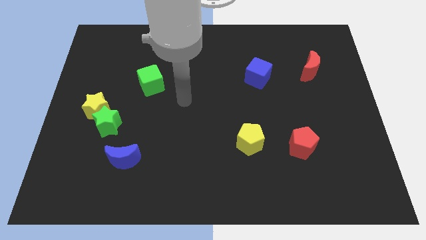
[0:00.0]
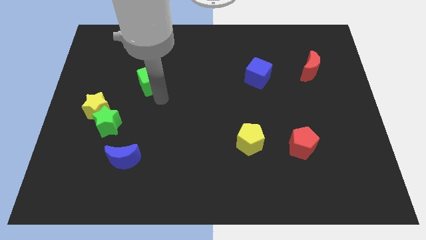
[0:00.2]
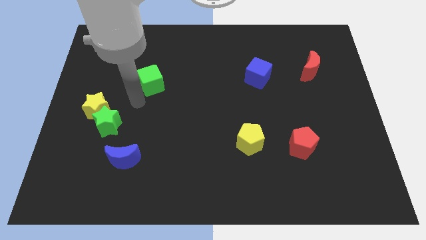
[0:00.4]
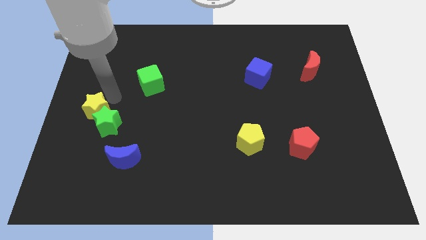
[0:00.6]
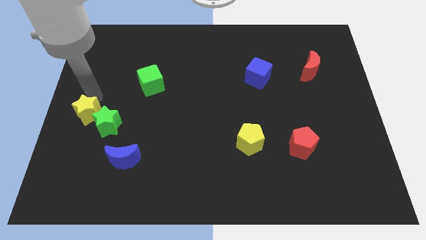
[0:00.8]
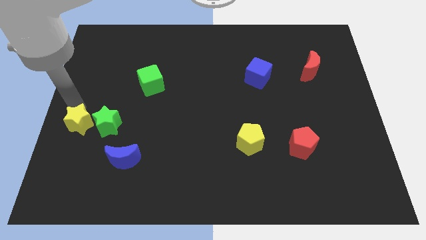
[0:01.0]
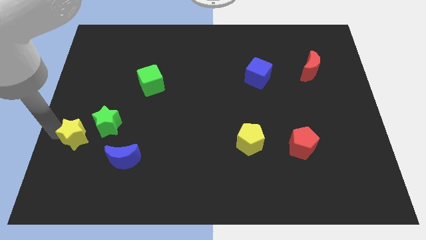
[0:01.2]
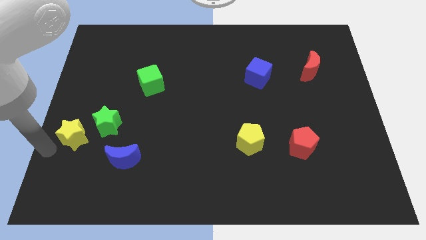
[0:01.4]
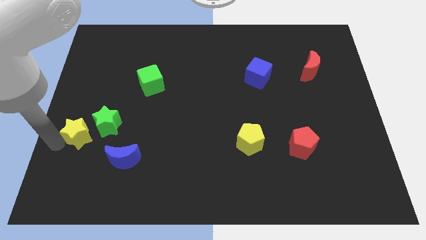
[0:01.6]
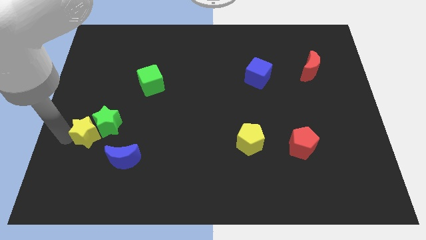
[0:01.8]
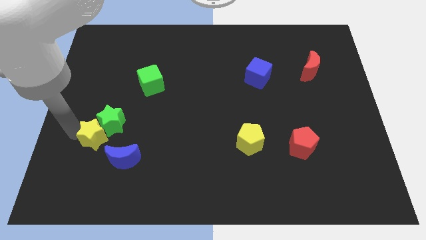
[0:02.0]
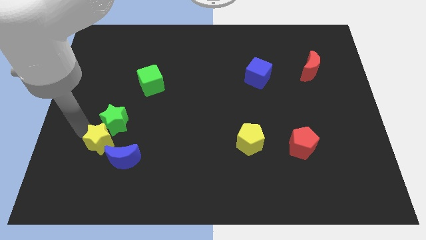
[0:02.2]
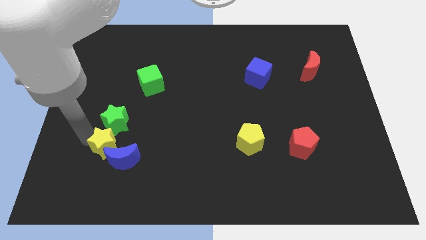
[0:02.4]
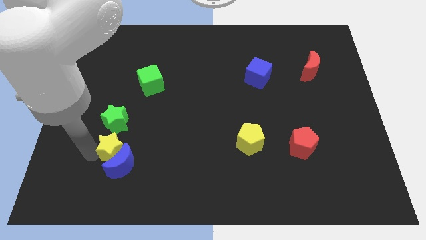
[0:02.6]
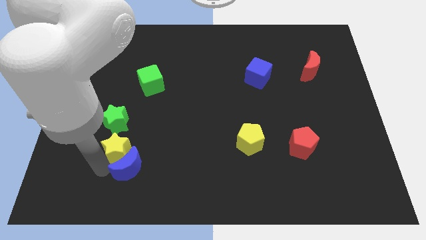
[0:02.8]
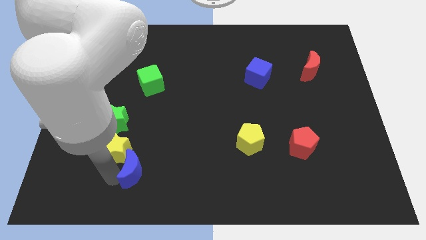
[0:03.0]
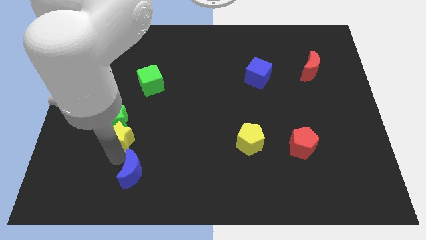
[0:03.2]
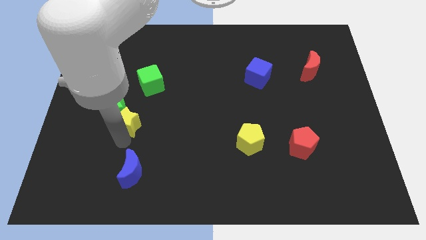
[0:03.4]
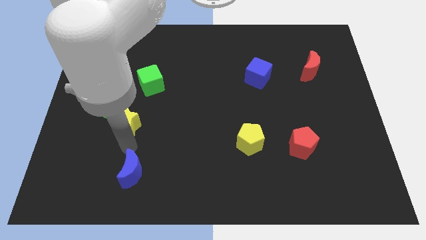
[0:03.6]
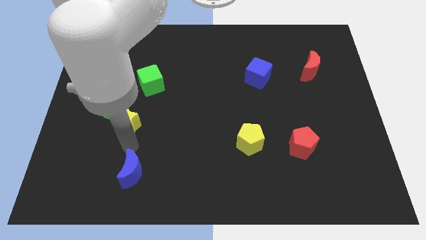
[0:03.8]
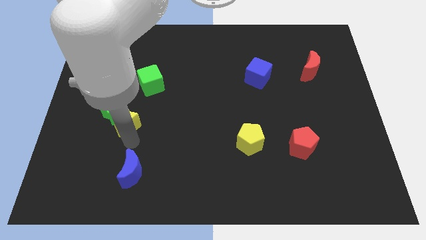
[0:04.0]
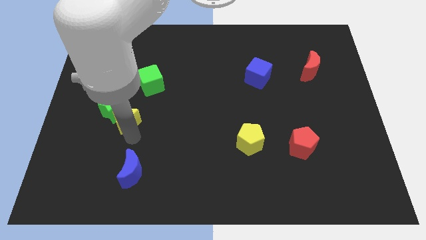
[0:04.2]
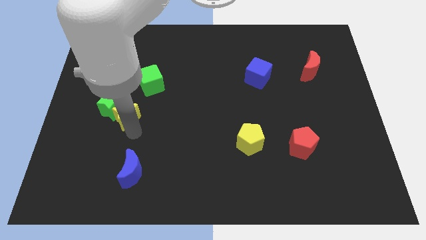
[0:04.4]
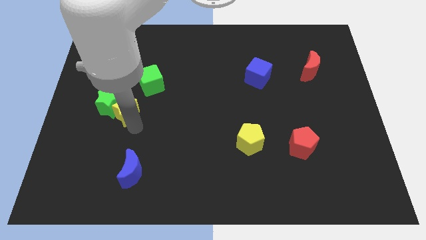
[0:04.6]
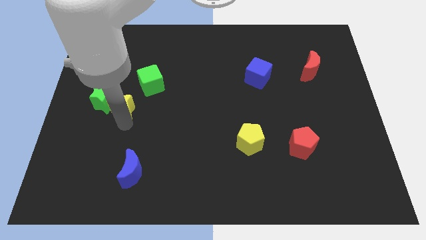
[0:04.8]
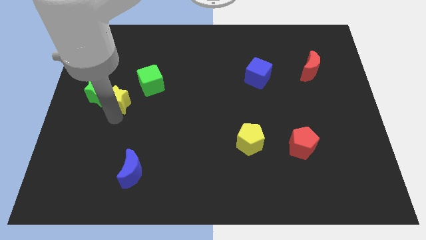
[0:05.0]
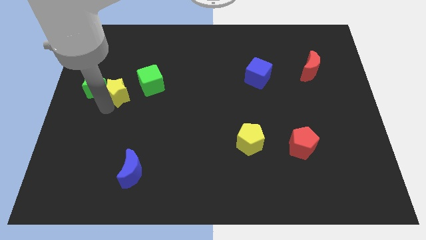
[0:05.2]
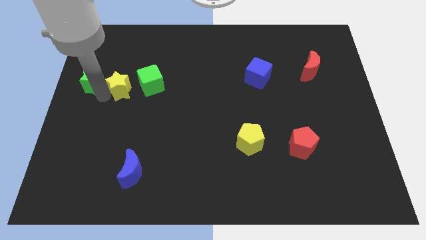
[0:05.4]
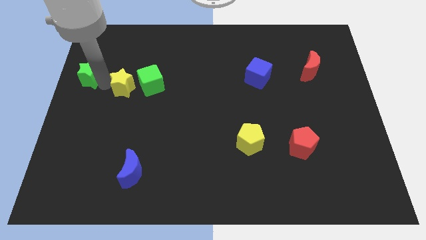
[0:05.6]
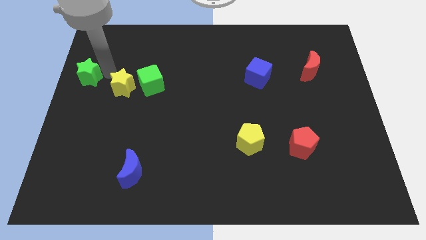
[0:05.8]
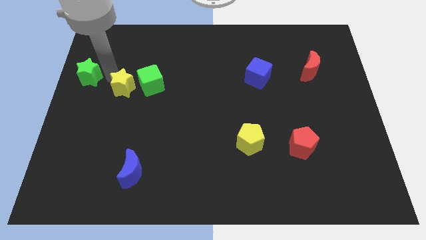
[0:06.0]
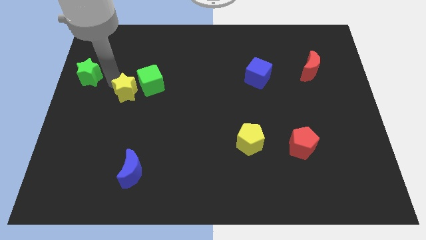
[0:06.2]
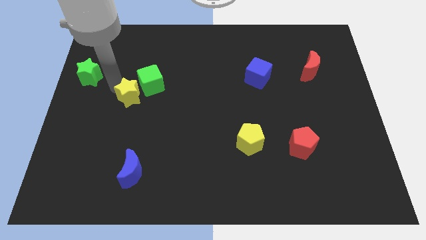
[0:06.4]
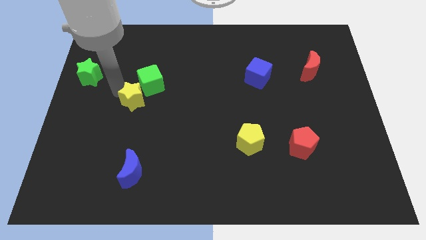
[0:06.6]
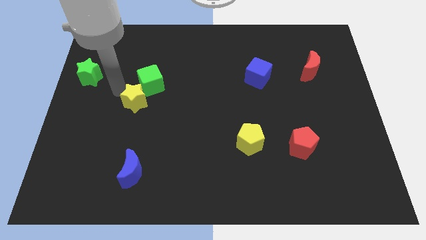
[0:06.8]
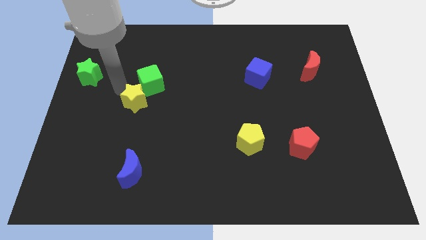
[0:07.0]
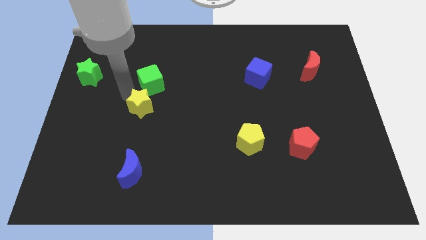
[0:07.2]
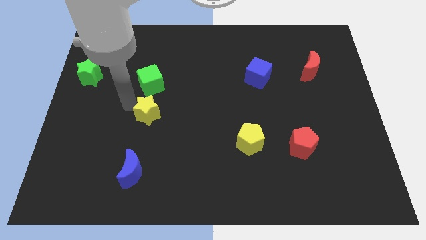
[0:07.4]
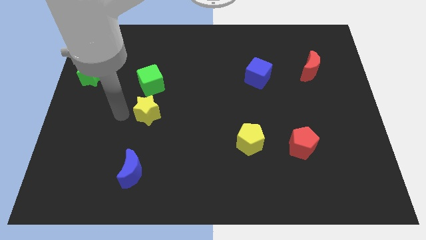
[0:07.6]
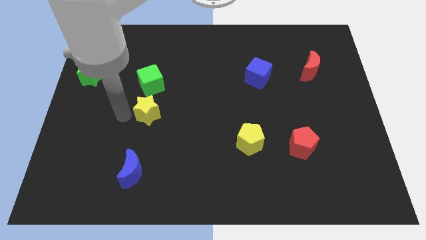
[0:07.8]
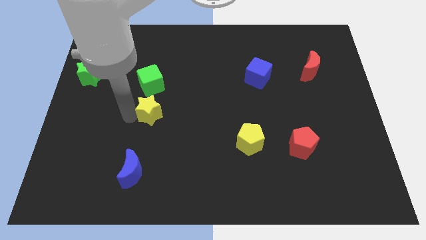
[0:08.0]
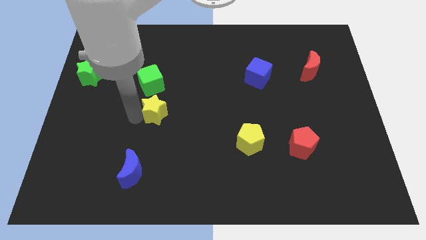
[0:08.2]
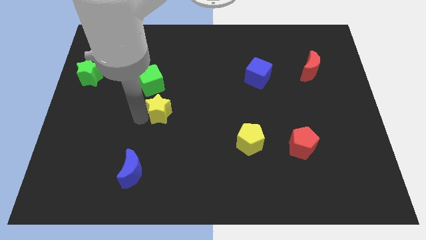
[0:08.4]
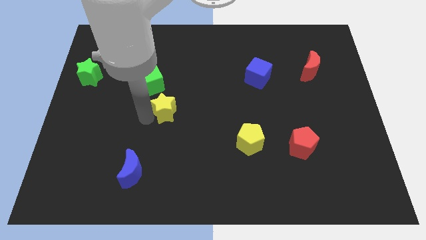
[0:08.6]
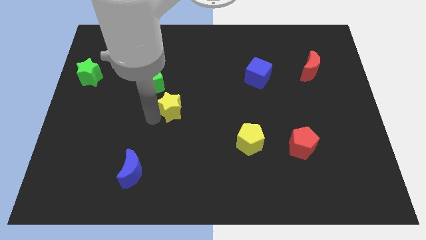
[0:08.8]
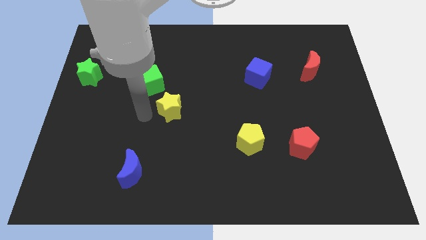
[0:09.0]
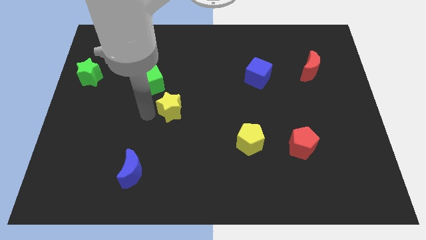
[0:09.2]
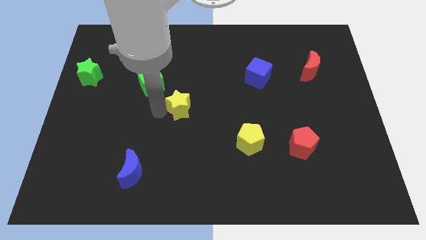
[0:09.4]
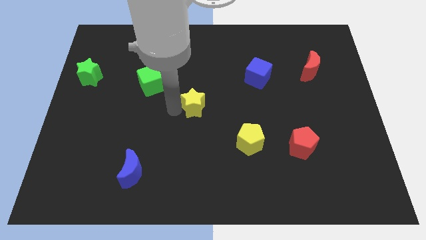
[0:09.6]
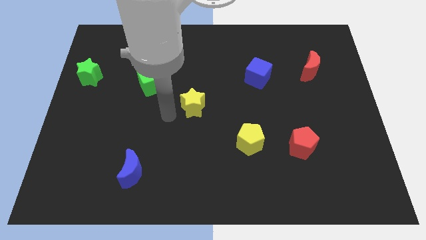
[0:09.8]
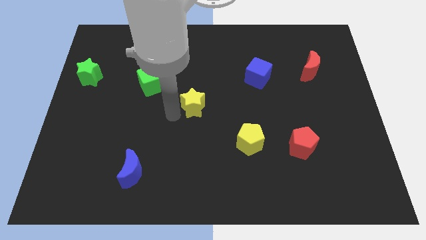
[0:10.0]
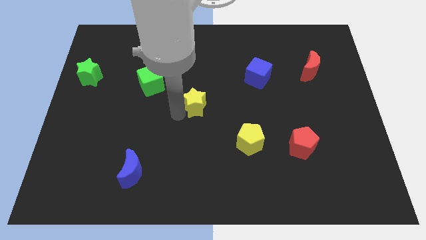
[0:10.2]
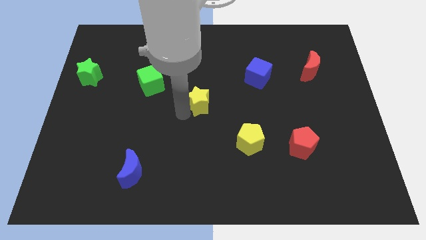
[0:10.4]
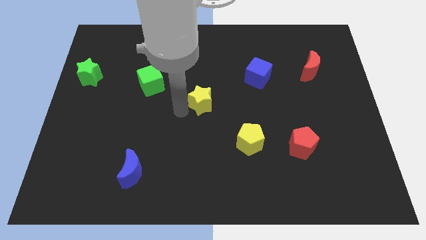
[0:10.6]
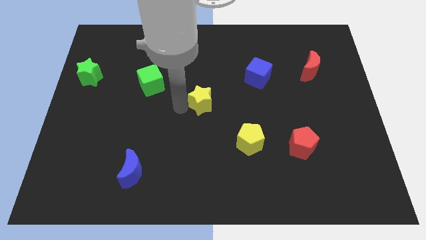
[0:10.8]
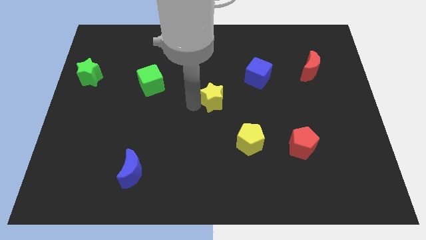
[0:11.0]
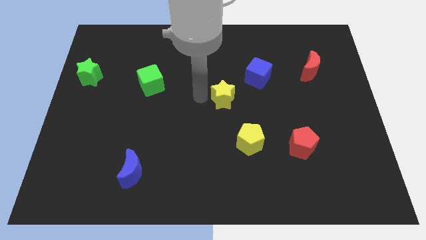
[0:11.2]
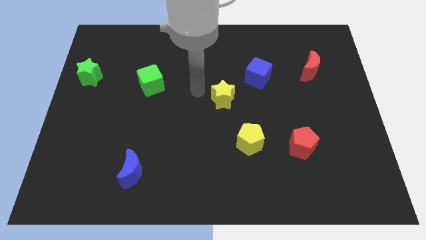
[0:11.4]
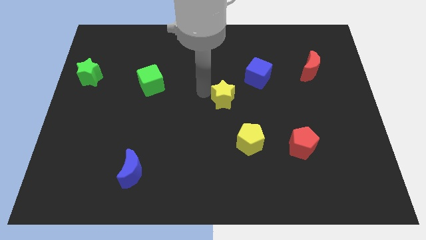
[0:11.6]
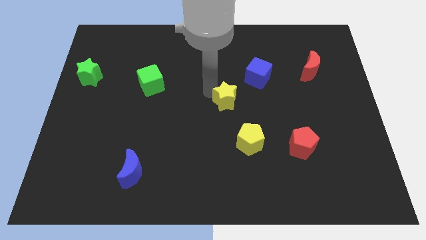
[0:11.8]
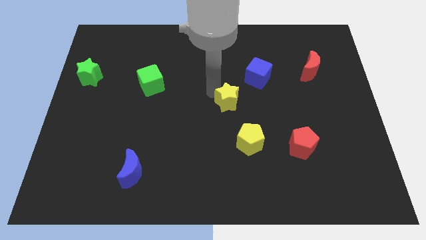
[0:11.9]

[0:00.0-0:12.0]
slide the yellow star above the yellow pentagon

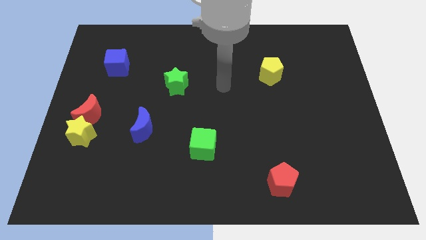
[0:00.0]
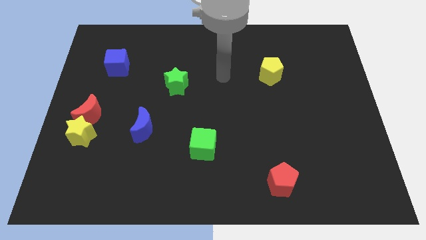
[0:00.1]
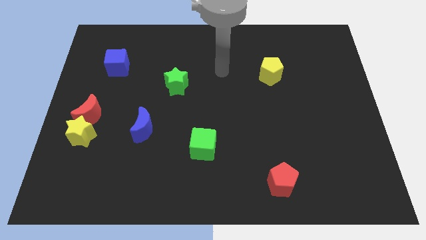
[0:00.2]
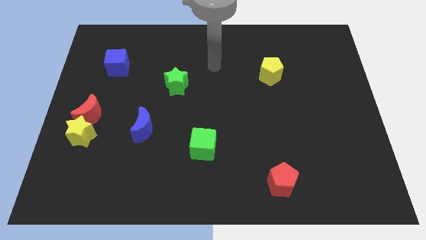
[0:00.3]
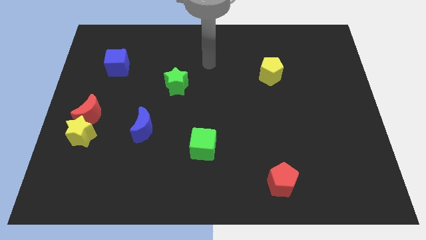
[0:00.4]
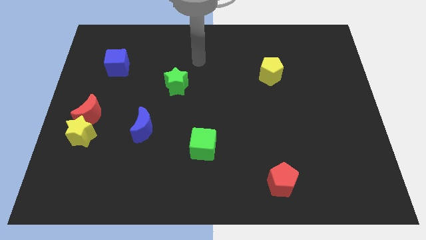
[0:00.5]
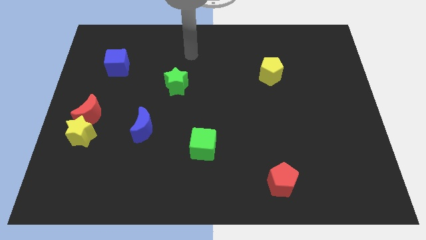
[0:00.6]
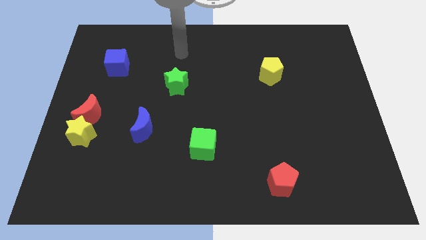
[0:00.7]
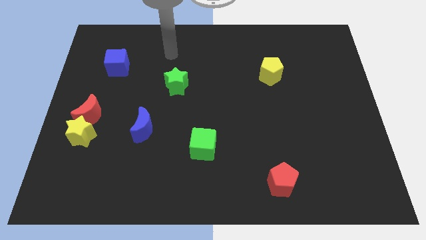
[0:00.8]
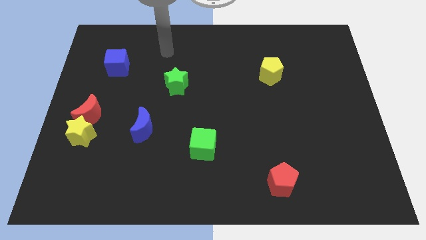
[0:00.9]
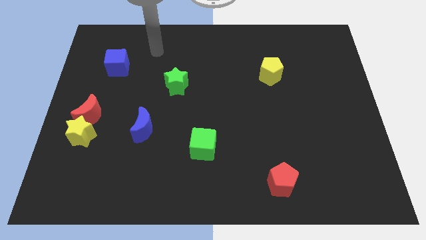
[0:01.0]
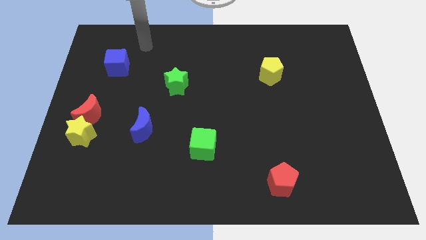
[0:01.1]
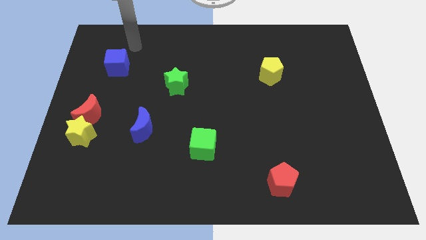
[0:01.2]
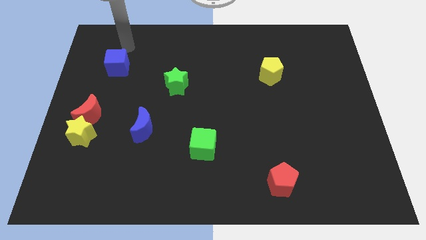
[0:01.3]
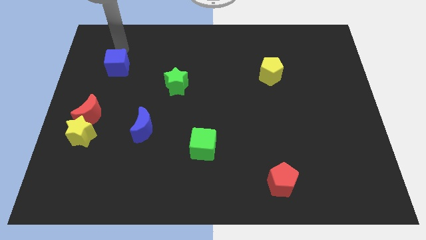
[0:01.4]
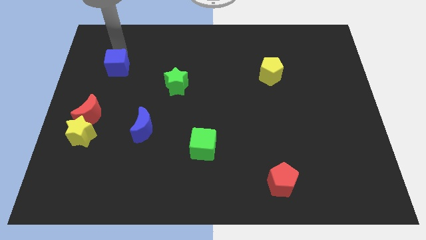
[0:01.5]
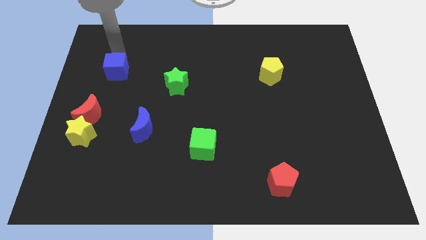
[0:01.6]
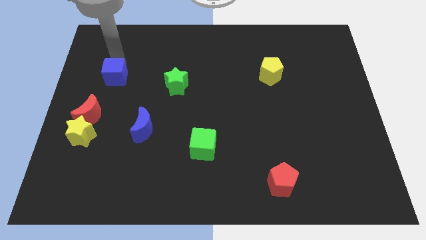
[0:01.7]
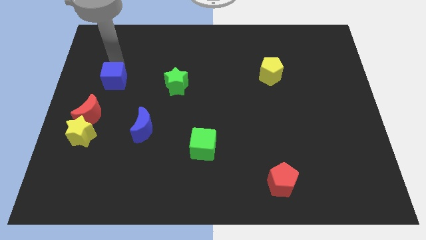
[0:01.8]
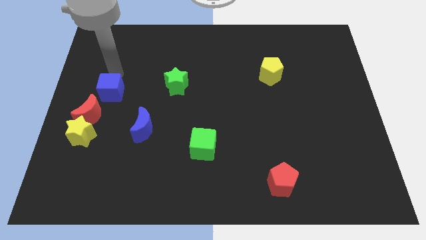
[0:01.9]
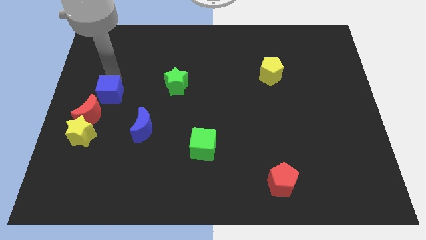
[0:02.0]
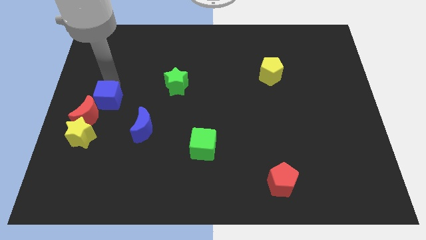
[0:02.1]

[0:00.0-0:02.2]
put the blue cube diagonally up and to the right of the yellow star
